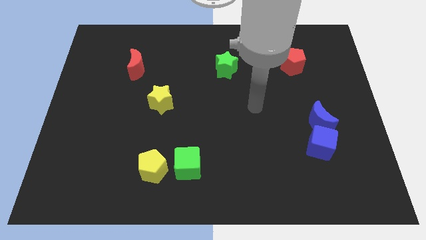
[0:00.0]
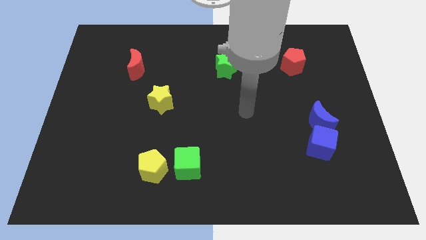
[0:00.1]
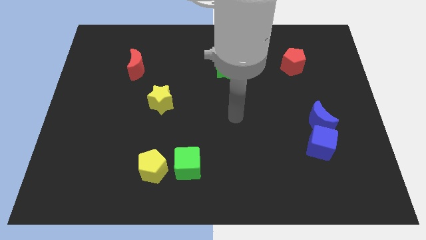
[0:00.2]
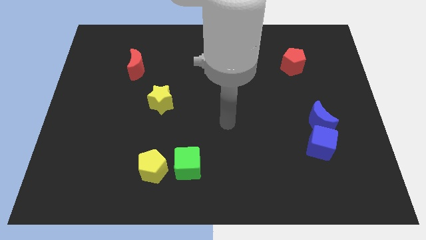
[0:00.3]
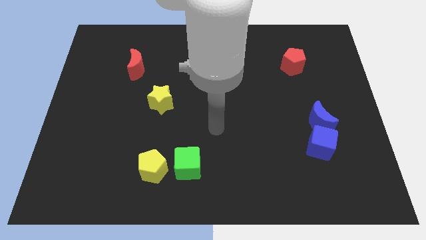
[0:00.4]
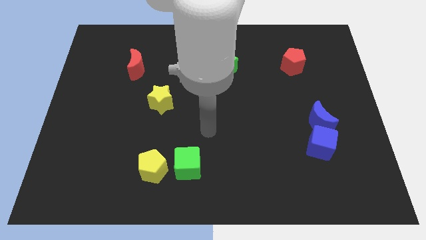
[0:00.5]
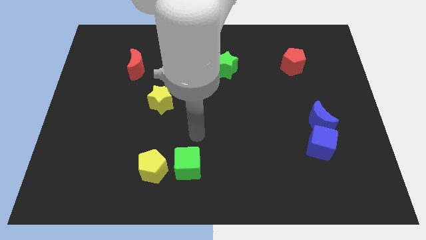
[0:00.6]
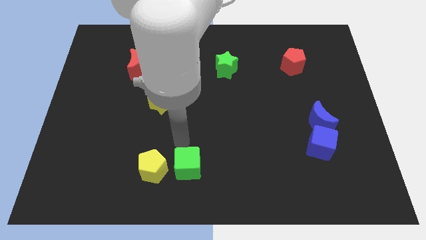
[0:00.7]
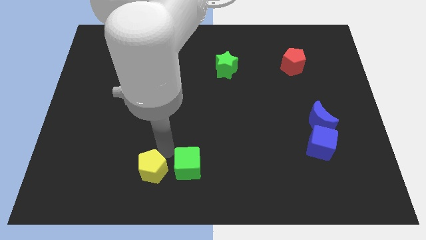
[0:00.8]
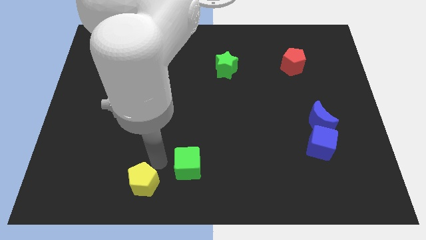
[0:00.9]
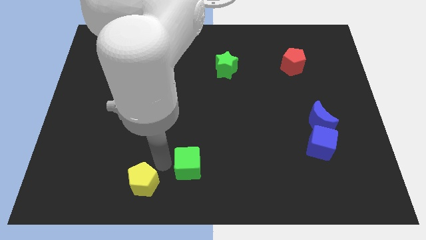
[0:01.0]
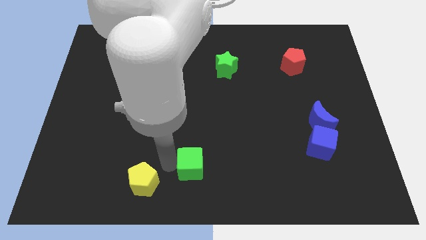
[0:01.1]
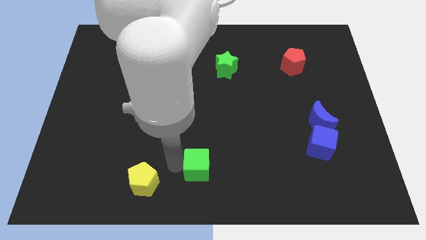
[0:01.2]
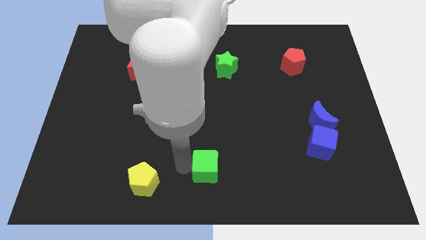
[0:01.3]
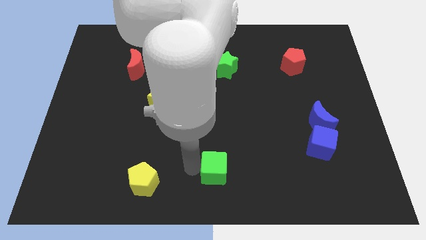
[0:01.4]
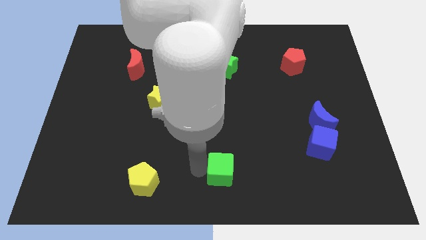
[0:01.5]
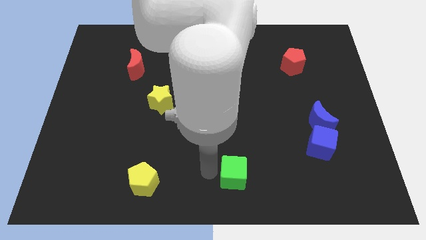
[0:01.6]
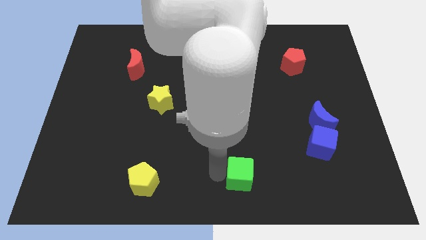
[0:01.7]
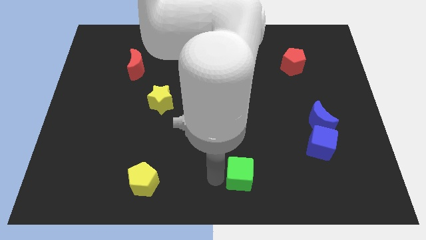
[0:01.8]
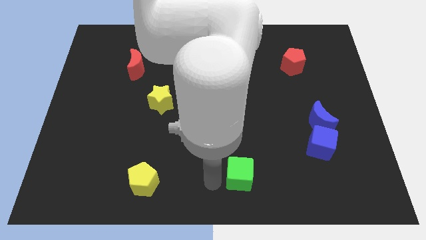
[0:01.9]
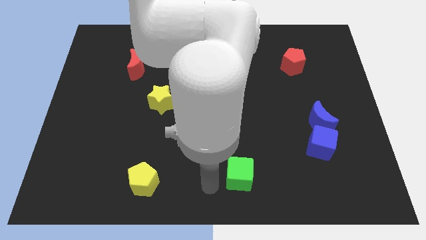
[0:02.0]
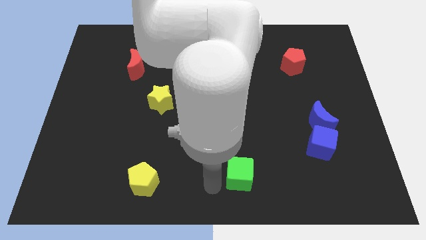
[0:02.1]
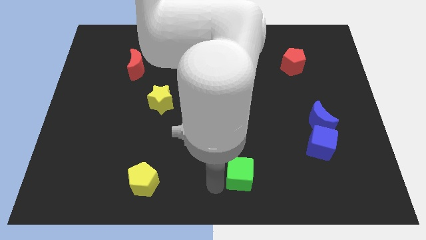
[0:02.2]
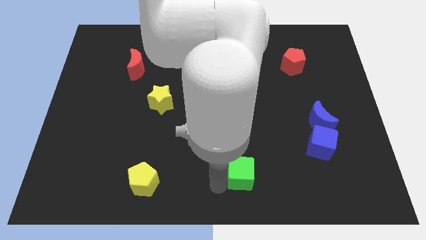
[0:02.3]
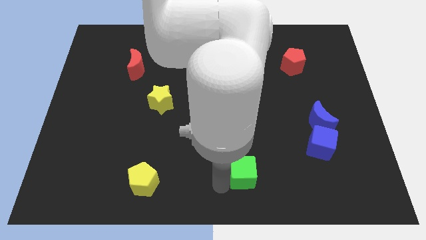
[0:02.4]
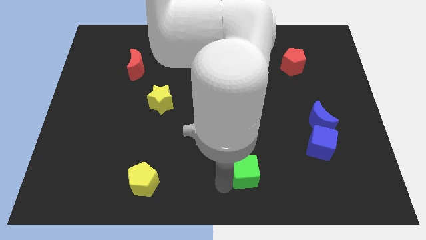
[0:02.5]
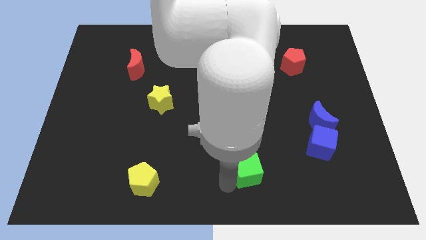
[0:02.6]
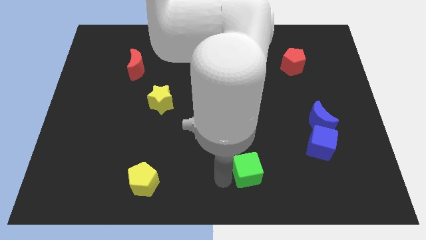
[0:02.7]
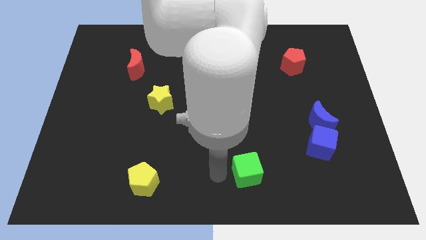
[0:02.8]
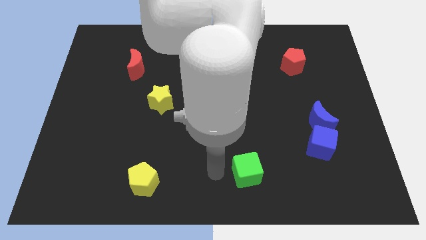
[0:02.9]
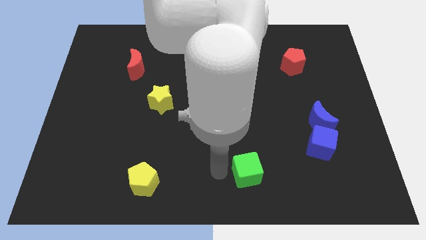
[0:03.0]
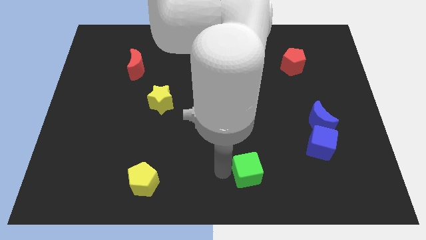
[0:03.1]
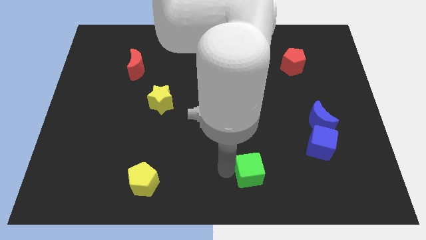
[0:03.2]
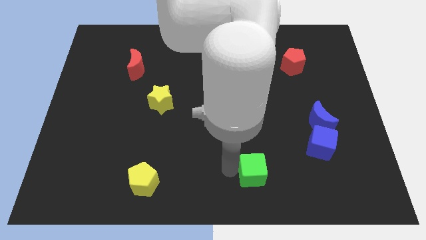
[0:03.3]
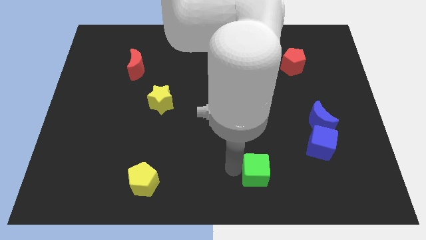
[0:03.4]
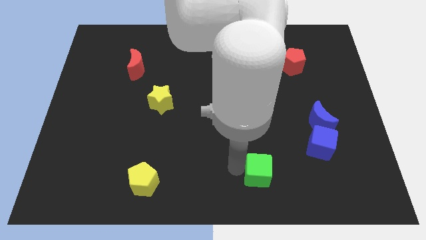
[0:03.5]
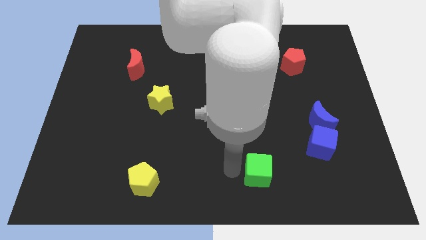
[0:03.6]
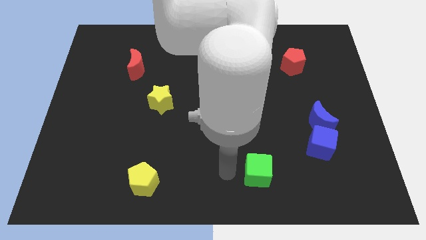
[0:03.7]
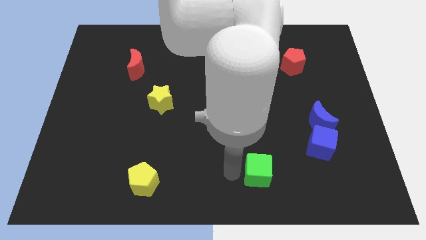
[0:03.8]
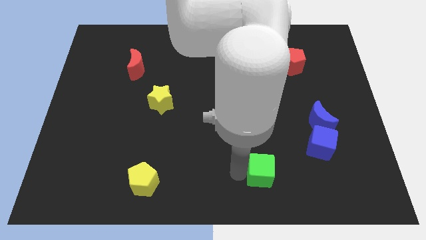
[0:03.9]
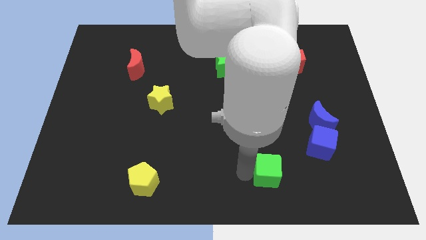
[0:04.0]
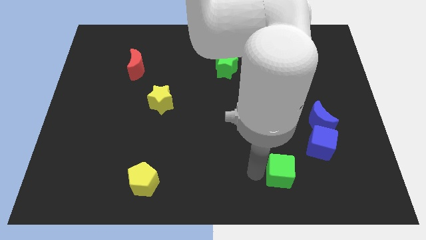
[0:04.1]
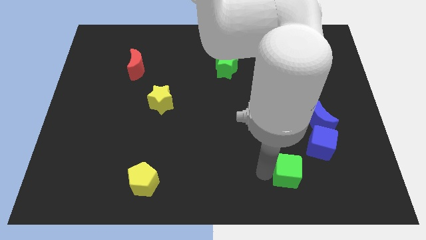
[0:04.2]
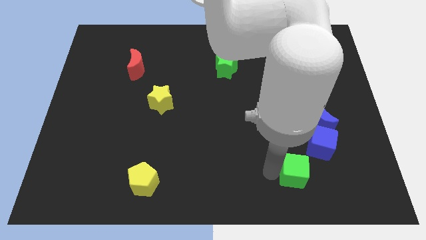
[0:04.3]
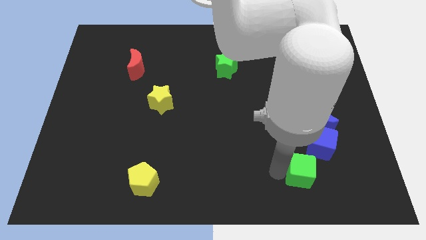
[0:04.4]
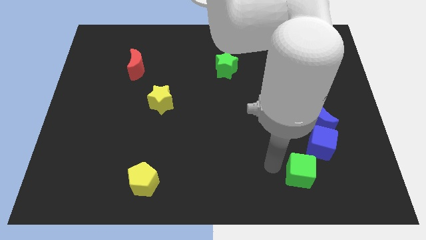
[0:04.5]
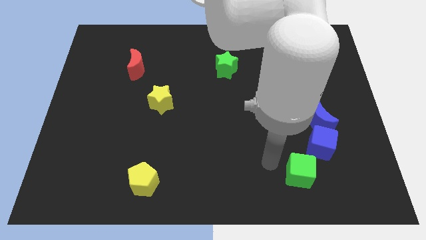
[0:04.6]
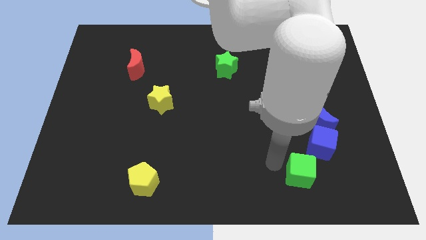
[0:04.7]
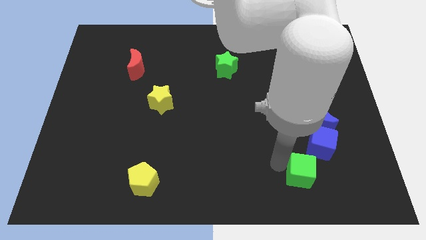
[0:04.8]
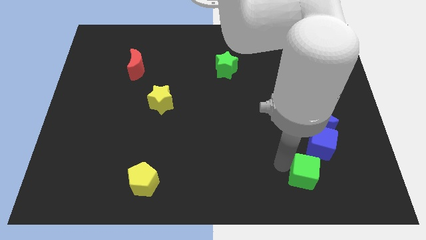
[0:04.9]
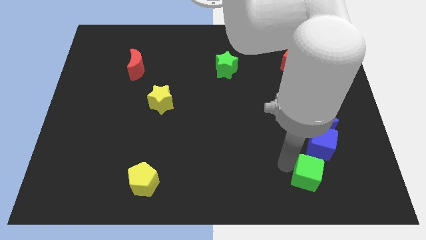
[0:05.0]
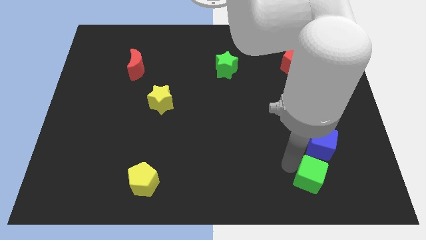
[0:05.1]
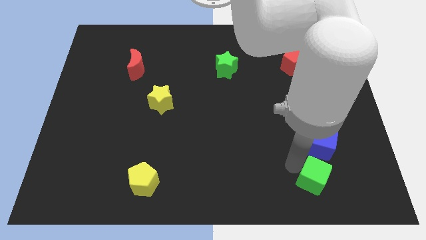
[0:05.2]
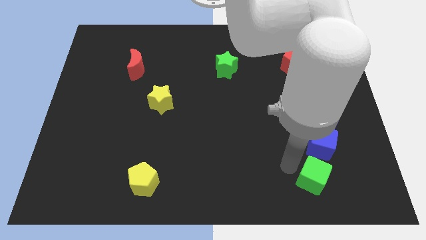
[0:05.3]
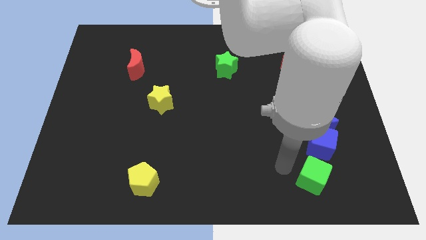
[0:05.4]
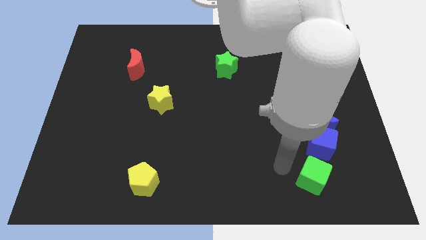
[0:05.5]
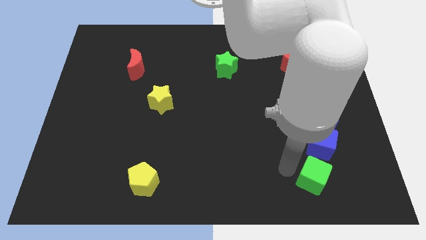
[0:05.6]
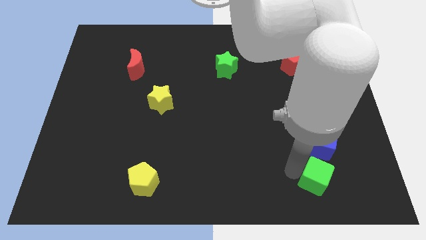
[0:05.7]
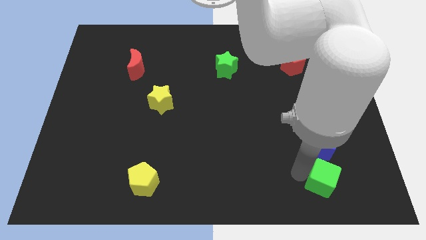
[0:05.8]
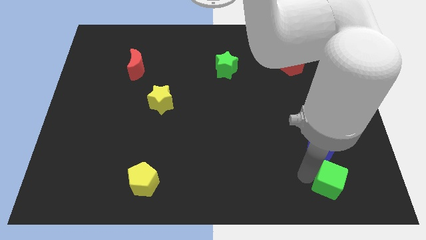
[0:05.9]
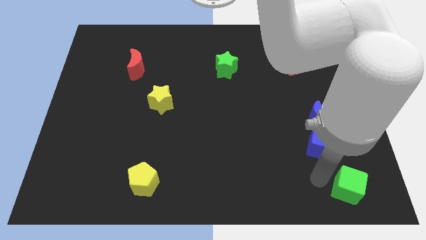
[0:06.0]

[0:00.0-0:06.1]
slide the green cube to the bottom right corner
